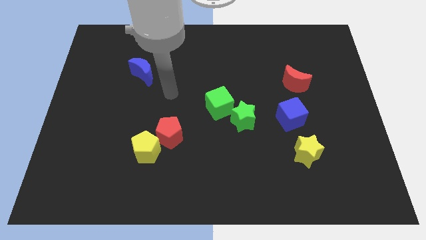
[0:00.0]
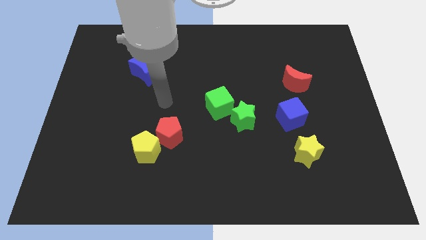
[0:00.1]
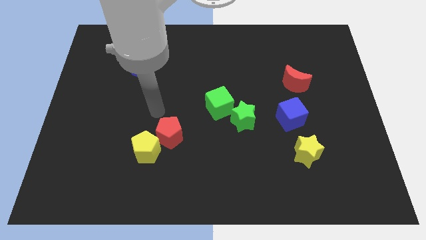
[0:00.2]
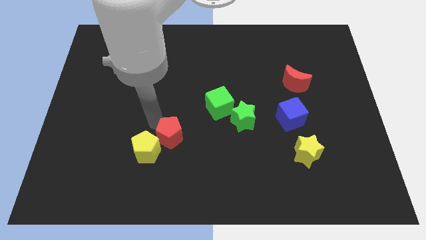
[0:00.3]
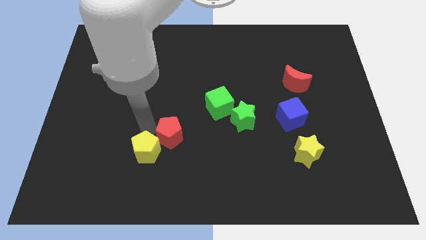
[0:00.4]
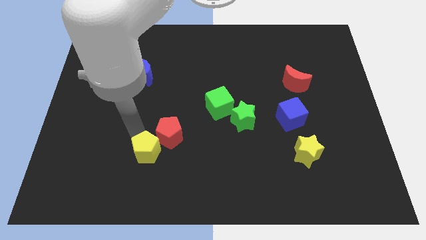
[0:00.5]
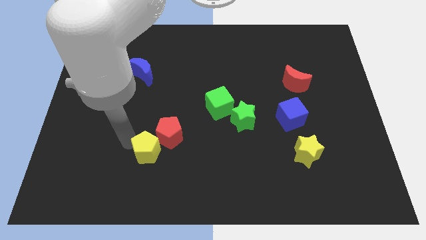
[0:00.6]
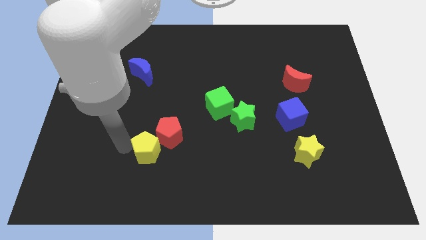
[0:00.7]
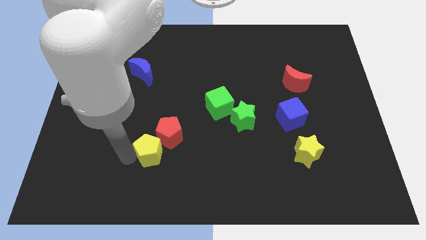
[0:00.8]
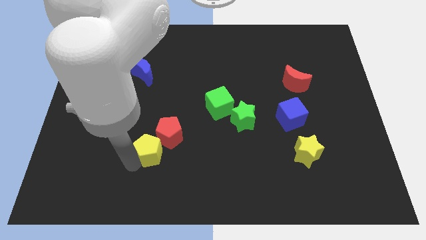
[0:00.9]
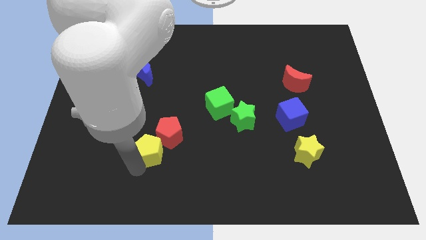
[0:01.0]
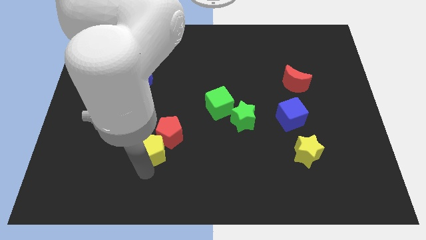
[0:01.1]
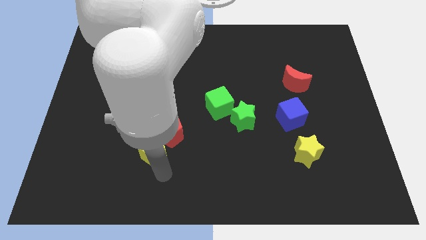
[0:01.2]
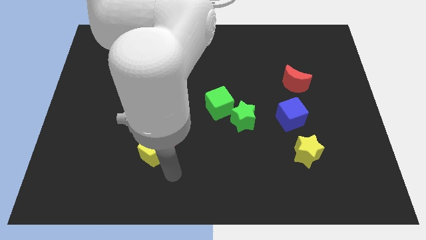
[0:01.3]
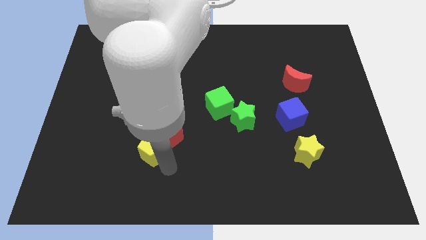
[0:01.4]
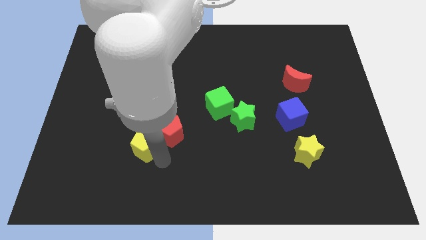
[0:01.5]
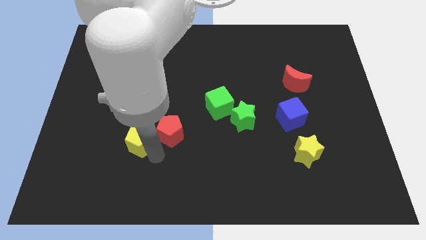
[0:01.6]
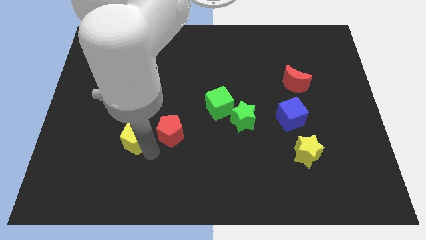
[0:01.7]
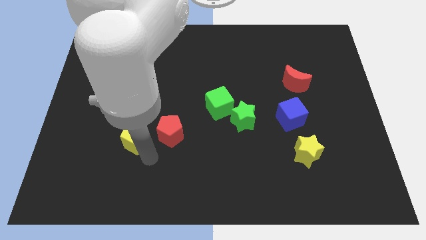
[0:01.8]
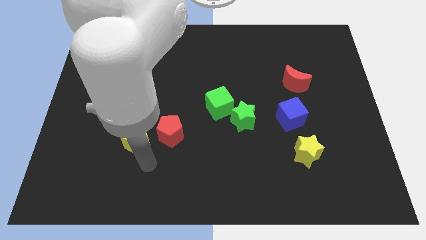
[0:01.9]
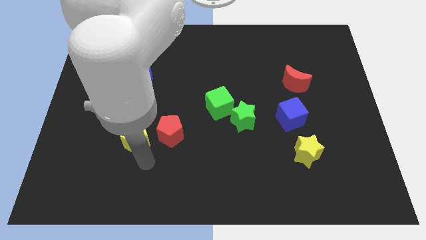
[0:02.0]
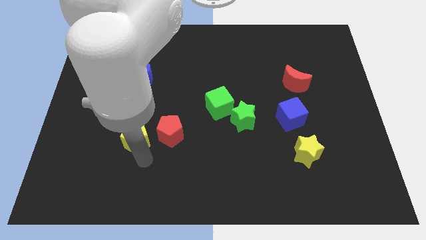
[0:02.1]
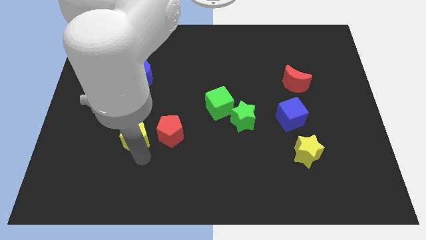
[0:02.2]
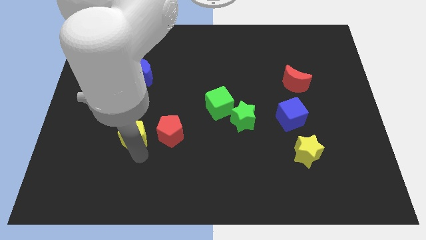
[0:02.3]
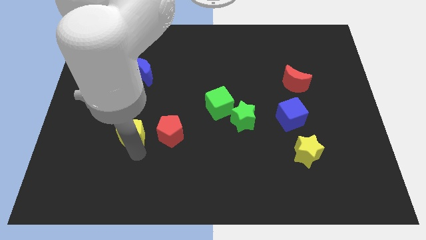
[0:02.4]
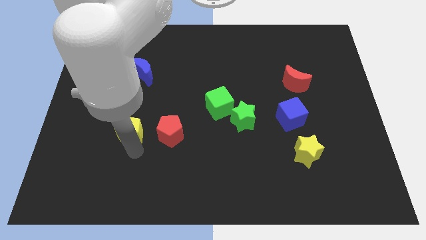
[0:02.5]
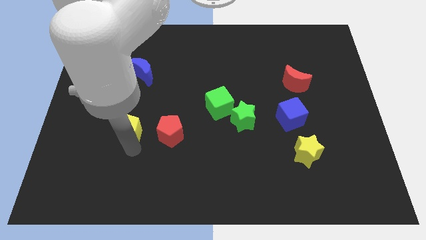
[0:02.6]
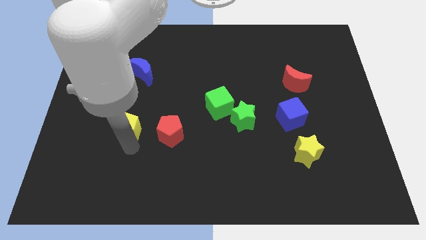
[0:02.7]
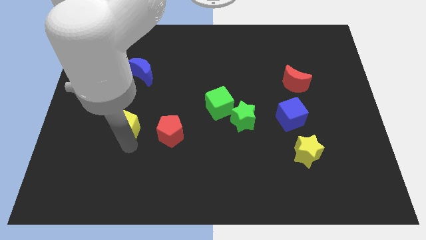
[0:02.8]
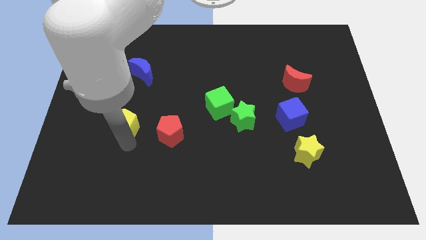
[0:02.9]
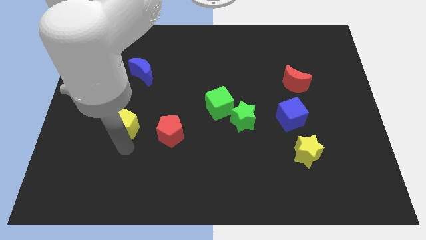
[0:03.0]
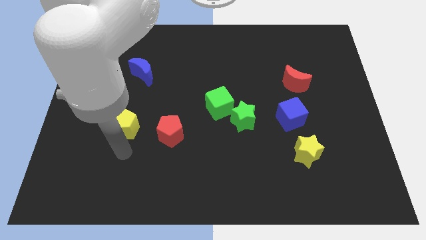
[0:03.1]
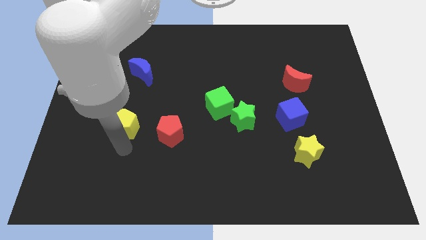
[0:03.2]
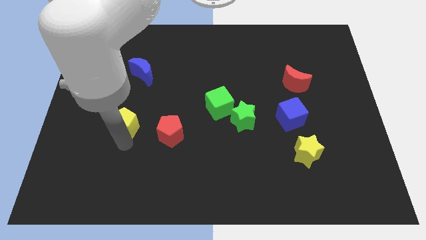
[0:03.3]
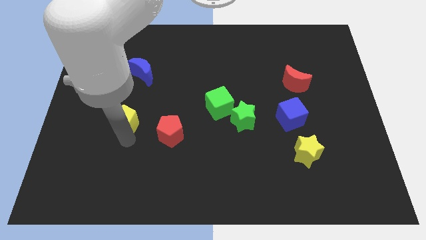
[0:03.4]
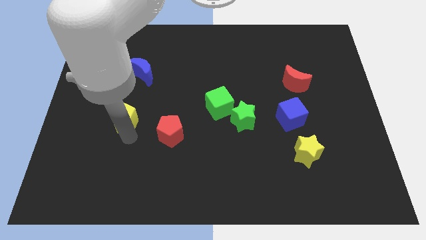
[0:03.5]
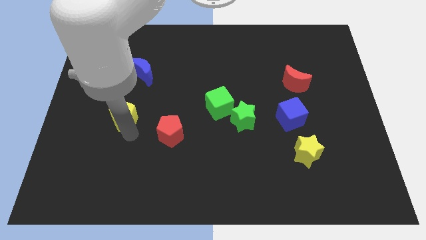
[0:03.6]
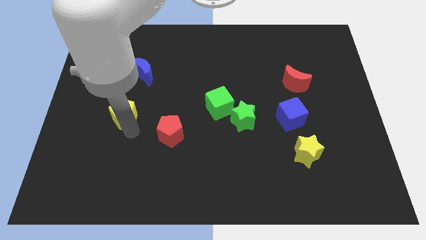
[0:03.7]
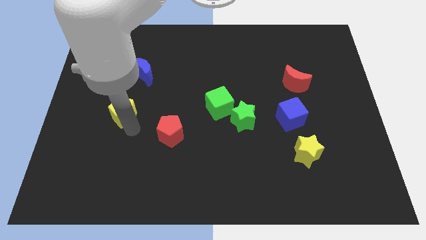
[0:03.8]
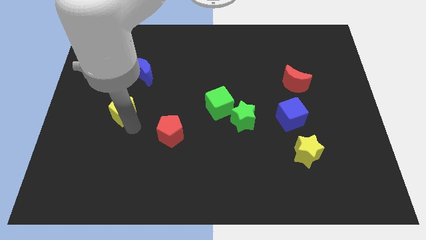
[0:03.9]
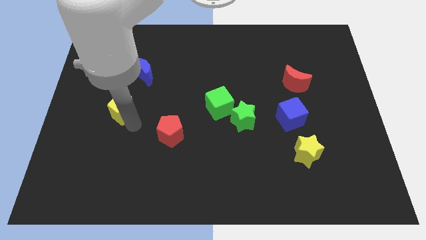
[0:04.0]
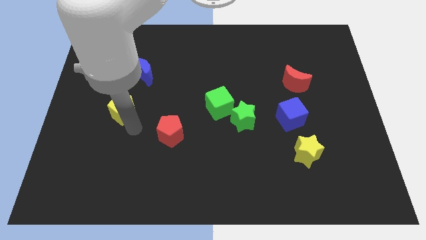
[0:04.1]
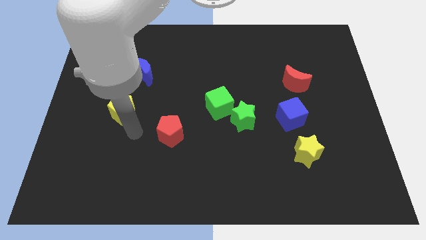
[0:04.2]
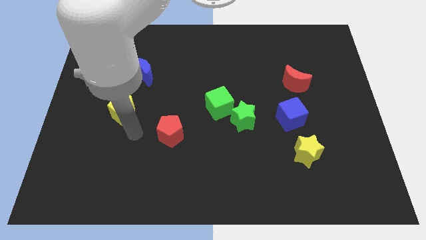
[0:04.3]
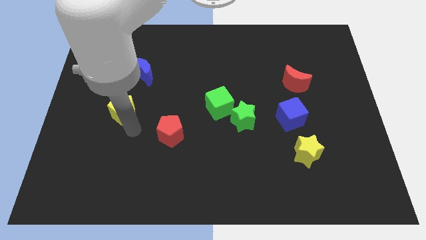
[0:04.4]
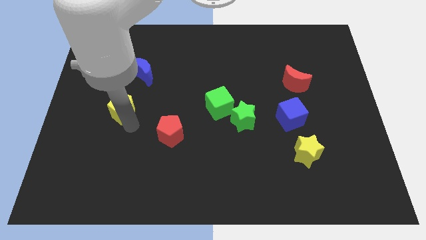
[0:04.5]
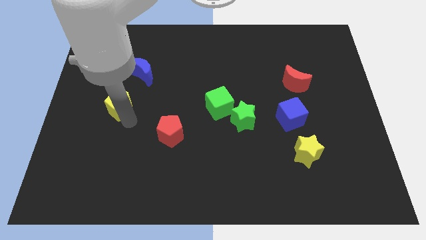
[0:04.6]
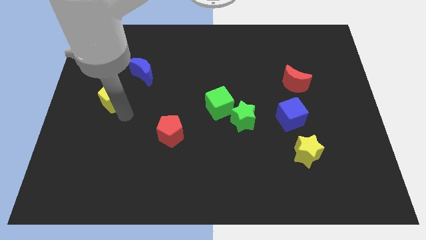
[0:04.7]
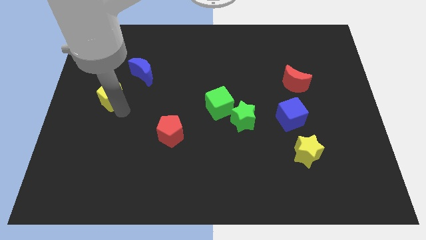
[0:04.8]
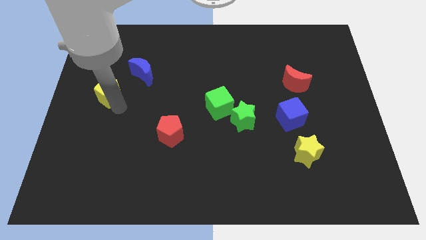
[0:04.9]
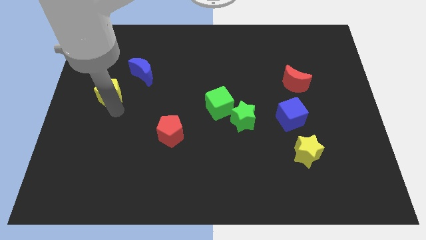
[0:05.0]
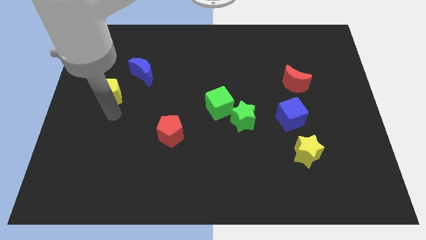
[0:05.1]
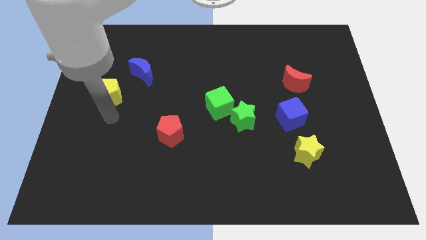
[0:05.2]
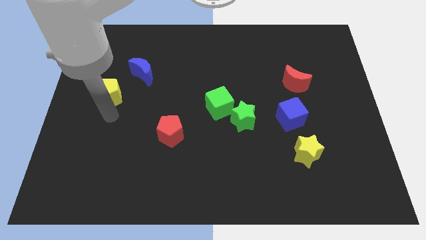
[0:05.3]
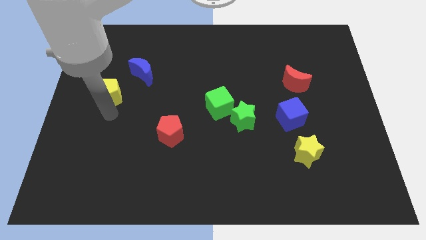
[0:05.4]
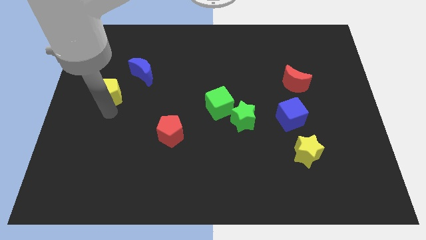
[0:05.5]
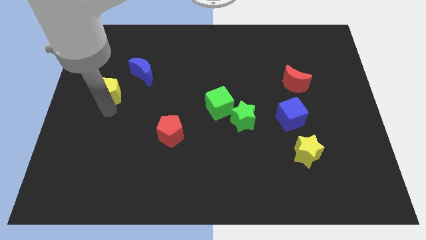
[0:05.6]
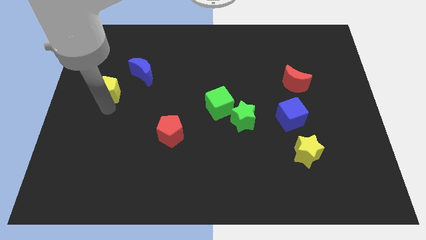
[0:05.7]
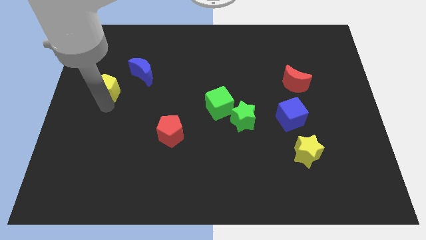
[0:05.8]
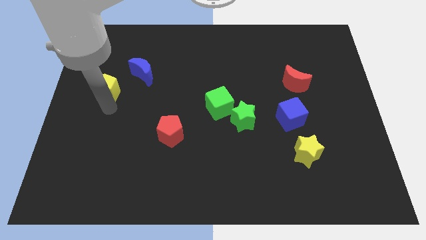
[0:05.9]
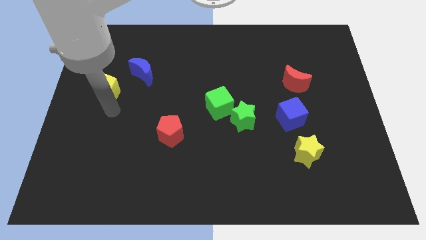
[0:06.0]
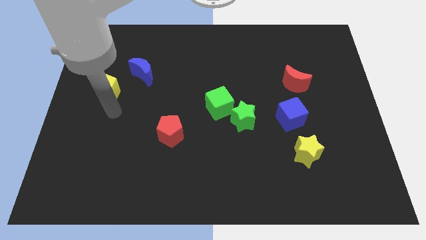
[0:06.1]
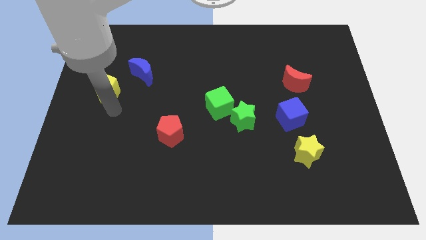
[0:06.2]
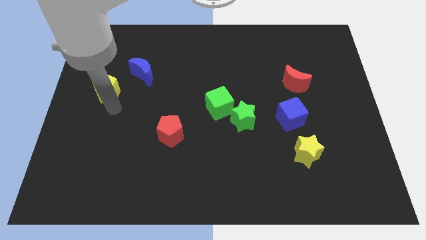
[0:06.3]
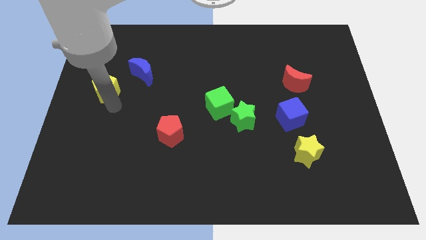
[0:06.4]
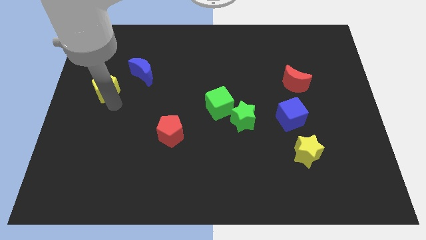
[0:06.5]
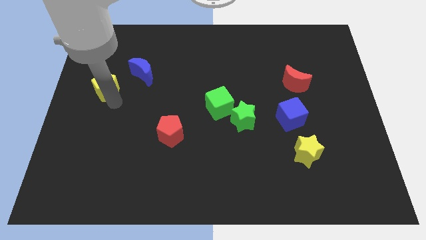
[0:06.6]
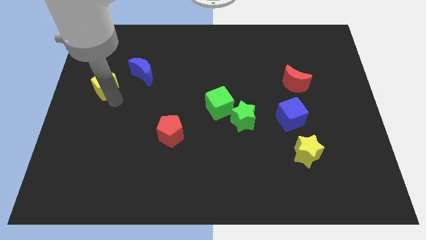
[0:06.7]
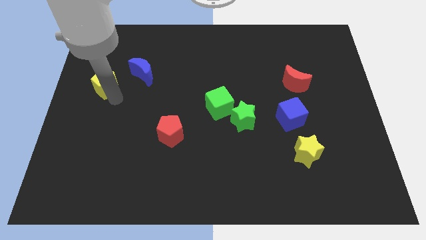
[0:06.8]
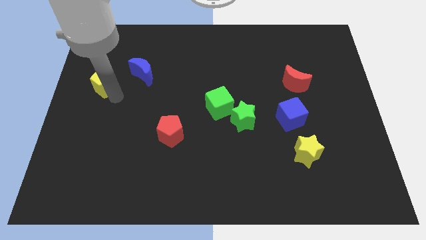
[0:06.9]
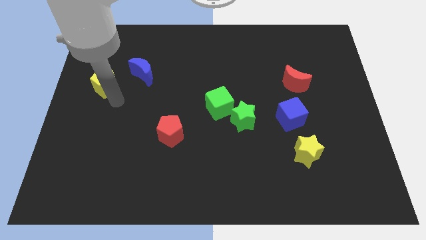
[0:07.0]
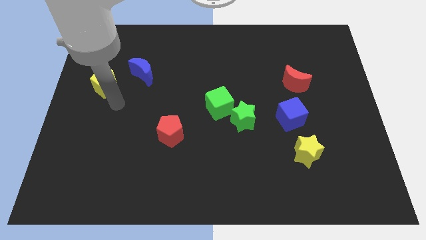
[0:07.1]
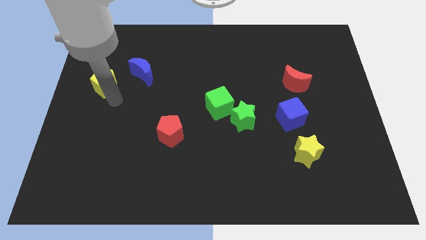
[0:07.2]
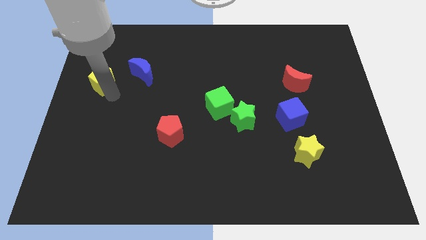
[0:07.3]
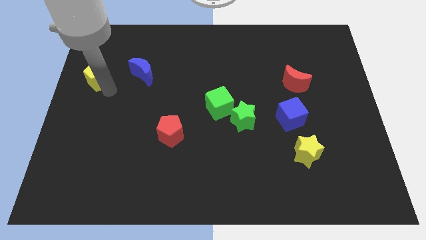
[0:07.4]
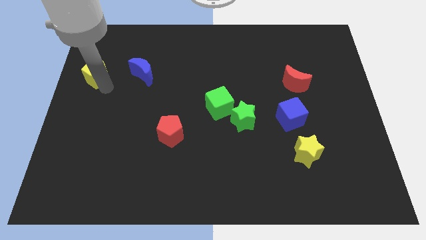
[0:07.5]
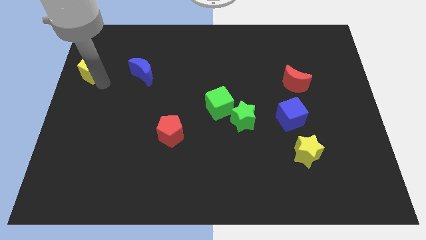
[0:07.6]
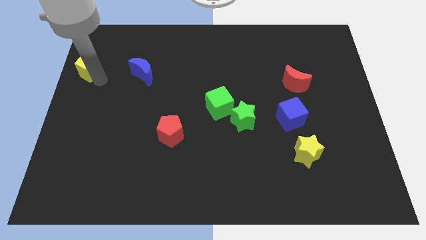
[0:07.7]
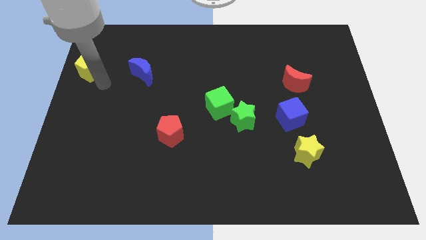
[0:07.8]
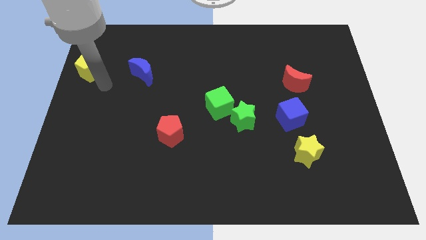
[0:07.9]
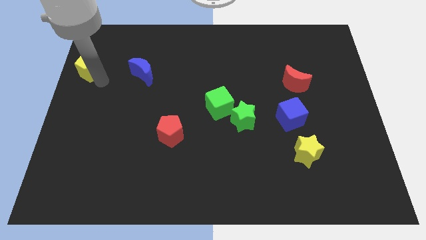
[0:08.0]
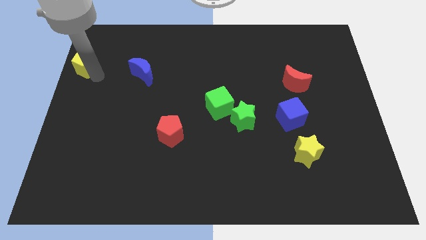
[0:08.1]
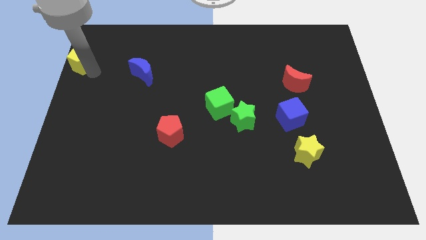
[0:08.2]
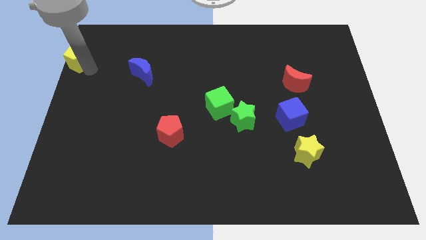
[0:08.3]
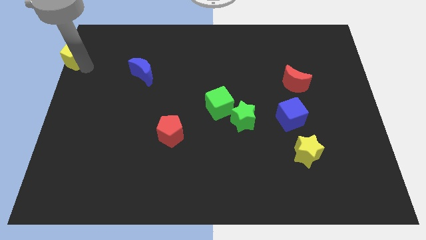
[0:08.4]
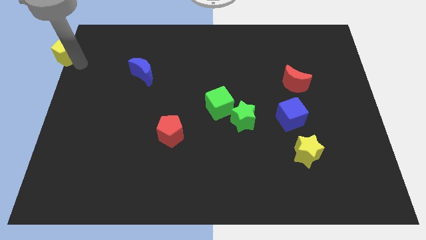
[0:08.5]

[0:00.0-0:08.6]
put the yellow pentagon to the top left corner
